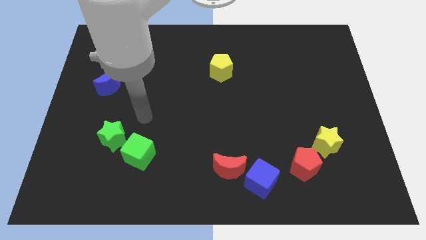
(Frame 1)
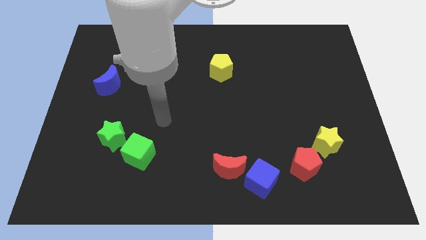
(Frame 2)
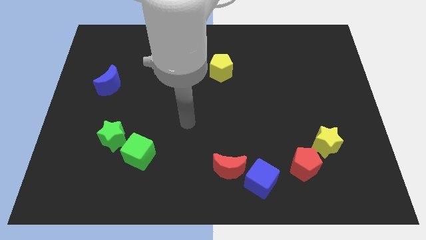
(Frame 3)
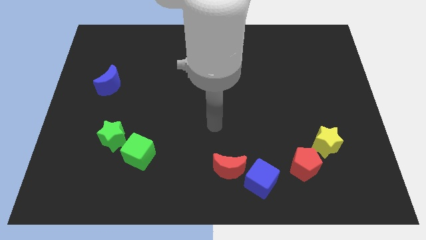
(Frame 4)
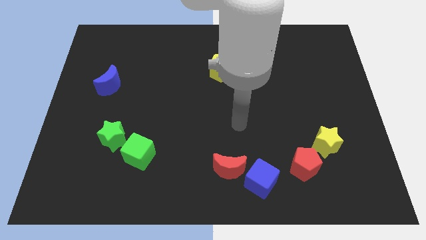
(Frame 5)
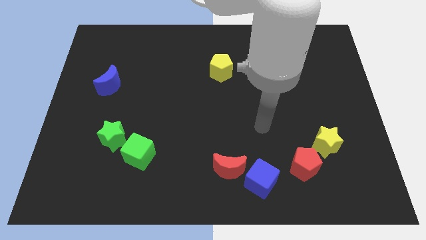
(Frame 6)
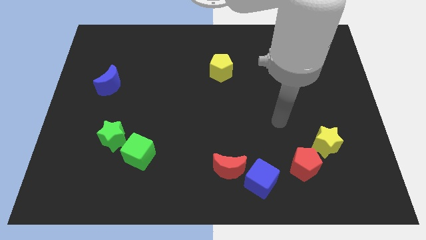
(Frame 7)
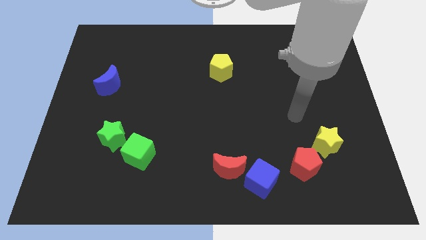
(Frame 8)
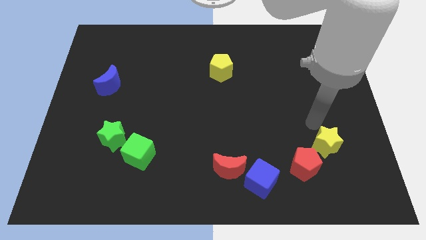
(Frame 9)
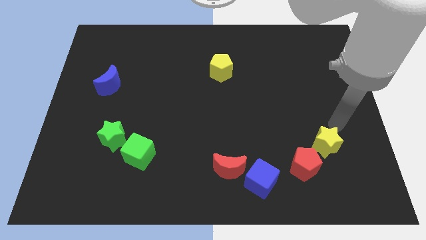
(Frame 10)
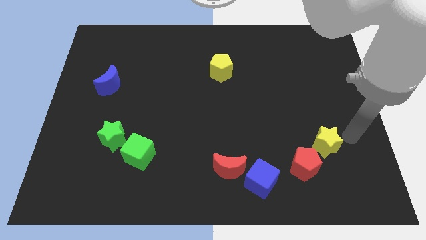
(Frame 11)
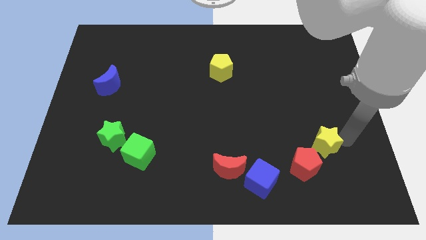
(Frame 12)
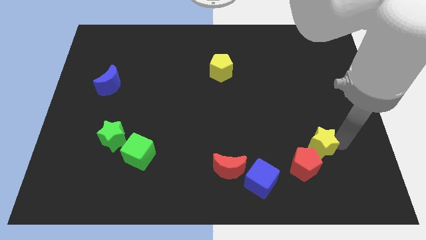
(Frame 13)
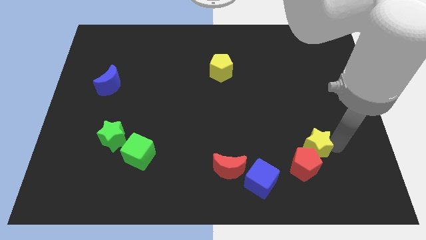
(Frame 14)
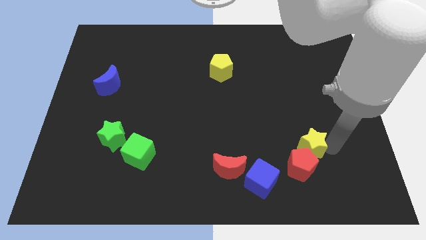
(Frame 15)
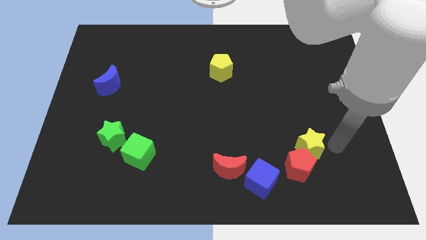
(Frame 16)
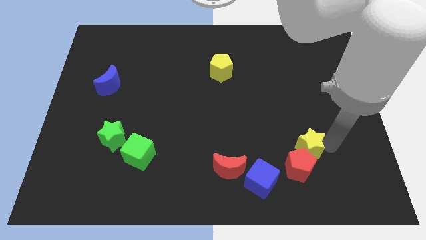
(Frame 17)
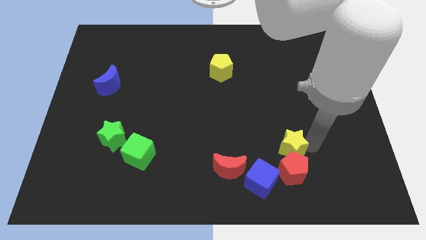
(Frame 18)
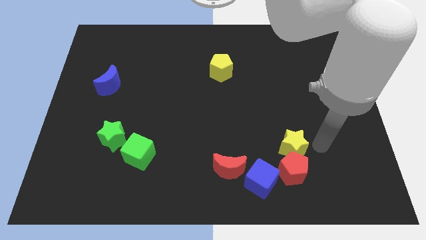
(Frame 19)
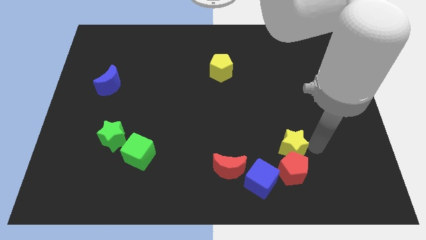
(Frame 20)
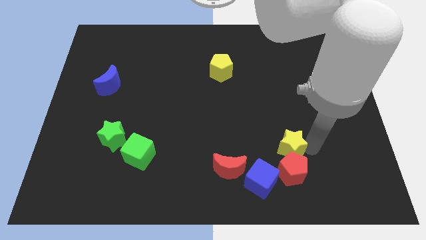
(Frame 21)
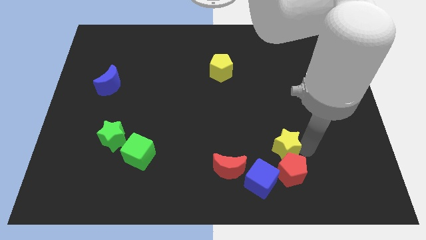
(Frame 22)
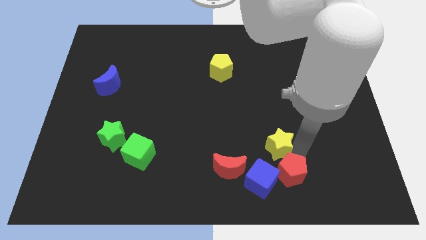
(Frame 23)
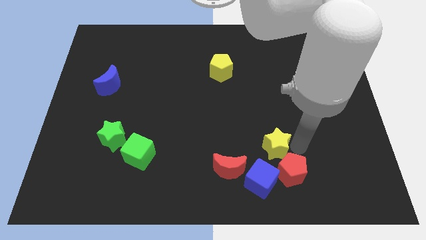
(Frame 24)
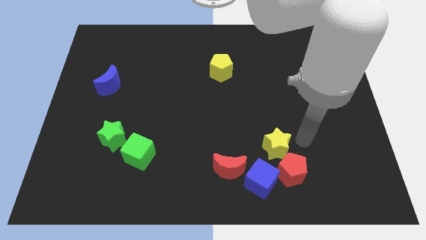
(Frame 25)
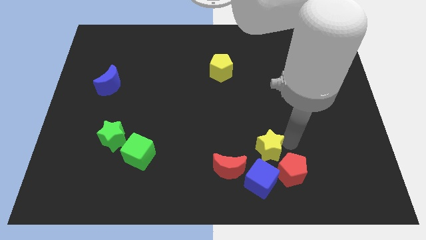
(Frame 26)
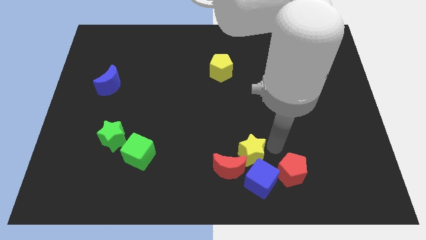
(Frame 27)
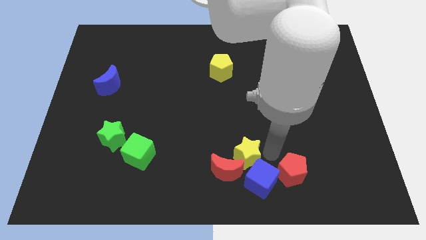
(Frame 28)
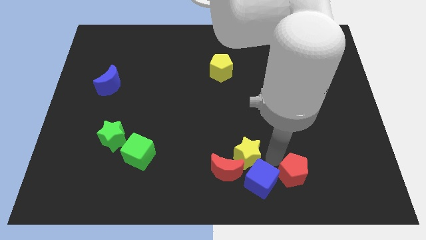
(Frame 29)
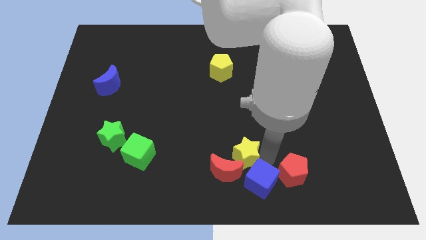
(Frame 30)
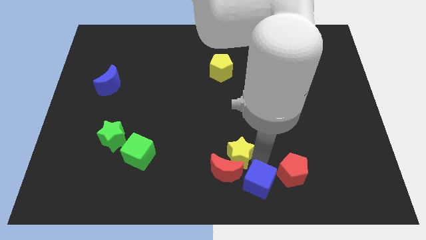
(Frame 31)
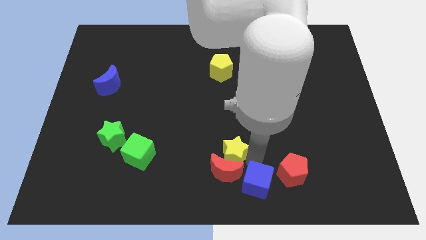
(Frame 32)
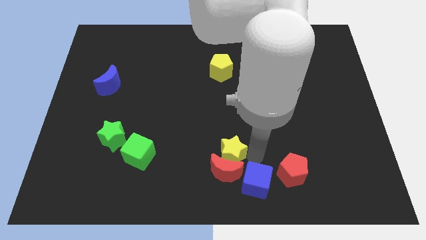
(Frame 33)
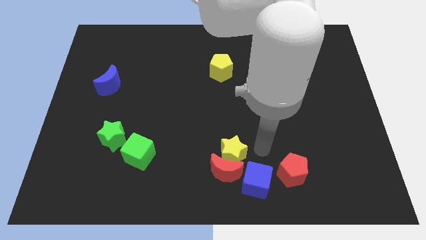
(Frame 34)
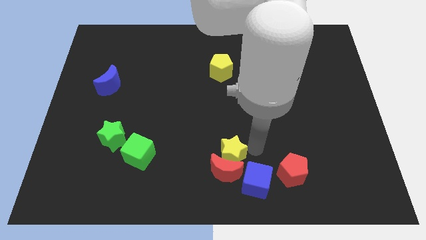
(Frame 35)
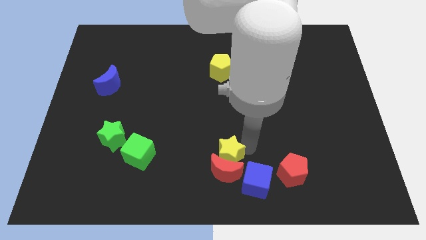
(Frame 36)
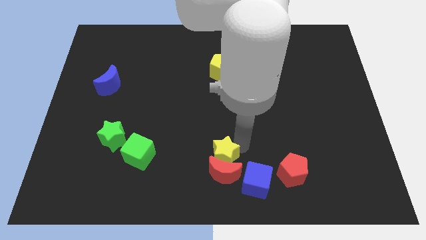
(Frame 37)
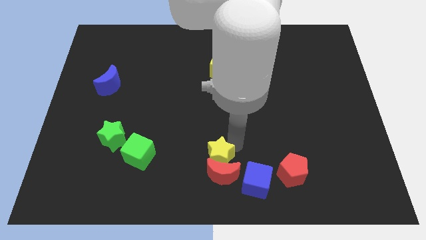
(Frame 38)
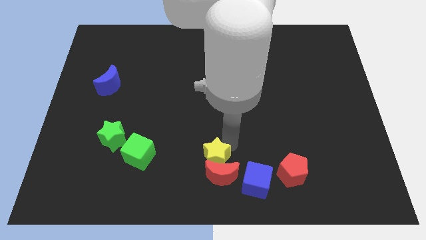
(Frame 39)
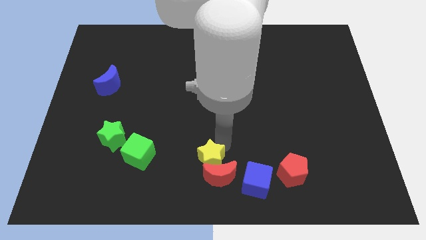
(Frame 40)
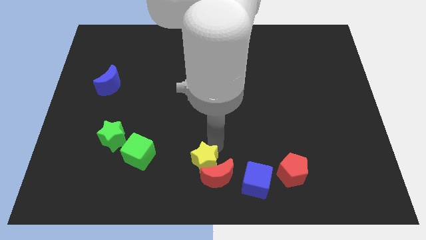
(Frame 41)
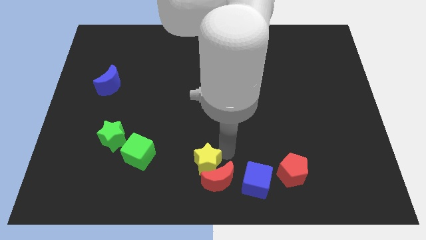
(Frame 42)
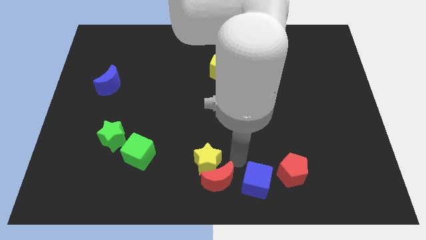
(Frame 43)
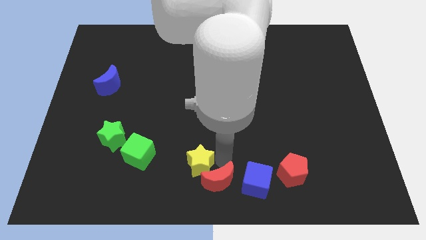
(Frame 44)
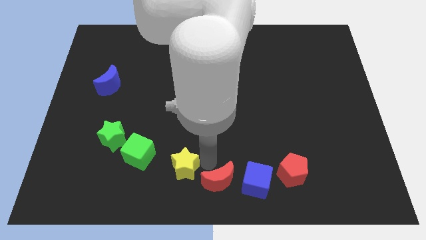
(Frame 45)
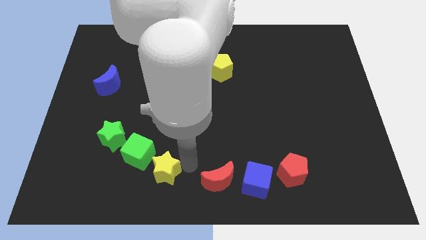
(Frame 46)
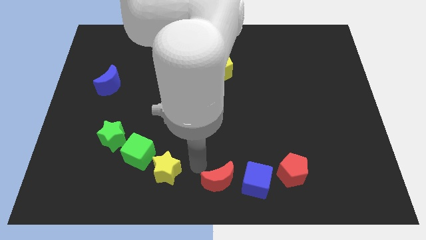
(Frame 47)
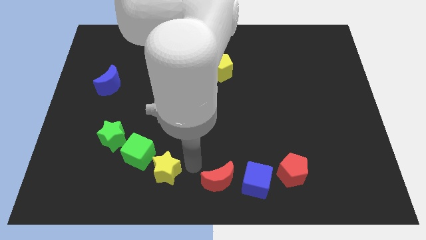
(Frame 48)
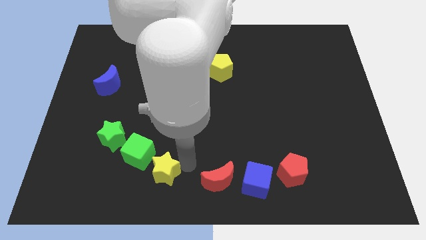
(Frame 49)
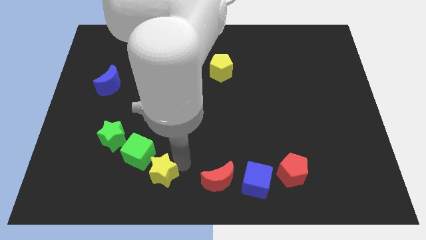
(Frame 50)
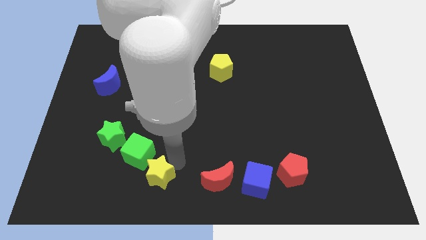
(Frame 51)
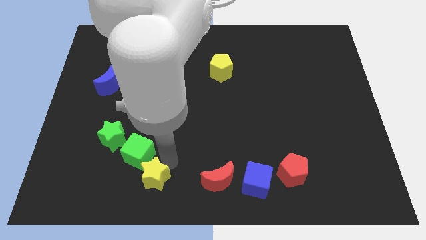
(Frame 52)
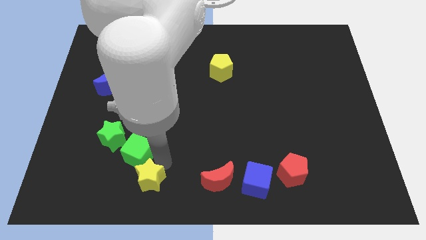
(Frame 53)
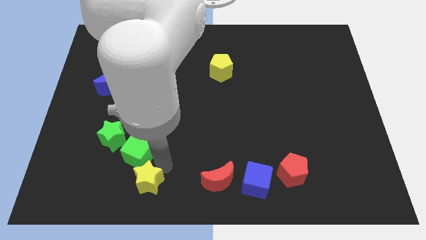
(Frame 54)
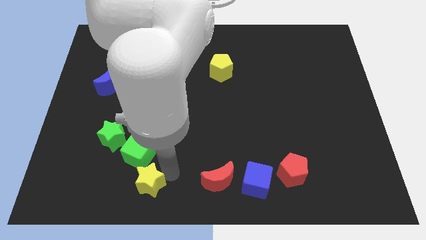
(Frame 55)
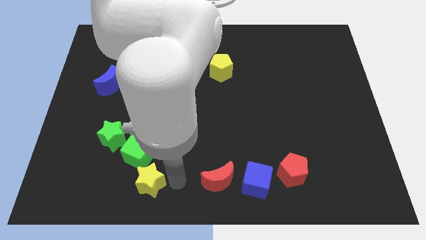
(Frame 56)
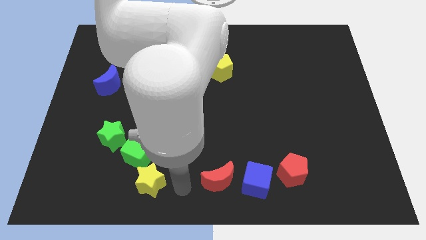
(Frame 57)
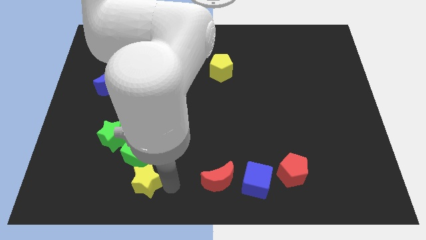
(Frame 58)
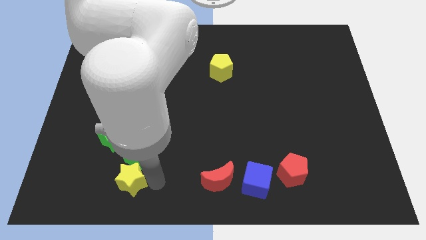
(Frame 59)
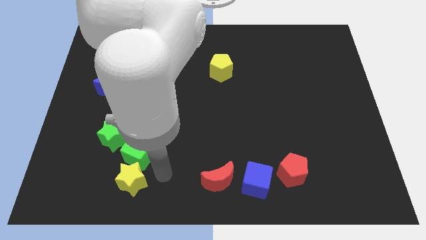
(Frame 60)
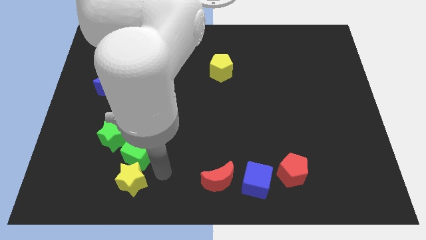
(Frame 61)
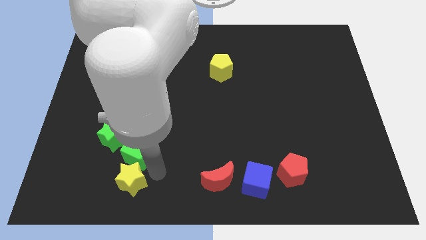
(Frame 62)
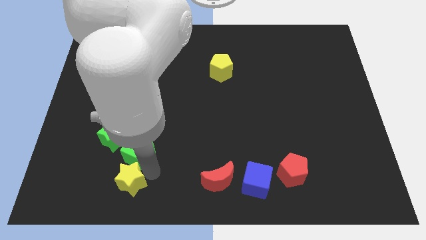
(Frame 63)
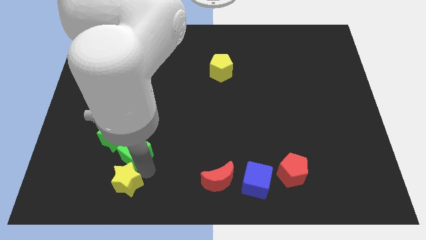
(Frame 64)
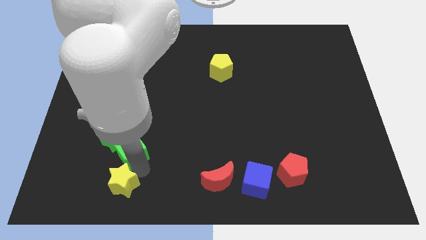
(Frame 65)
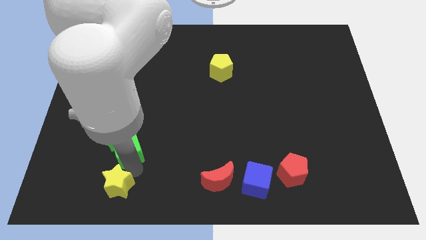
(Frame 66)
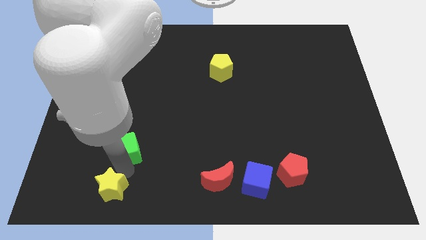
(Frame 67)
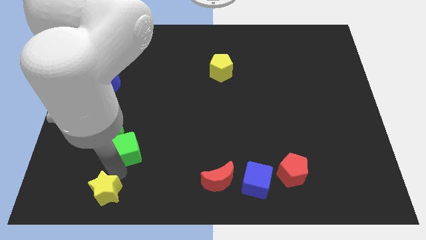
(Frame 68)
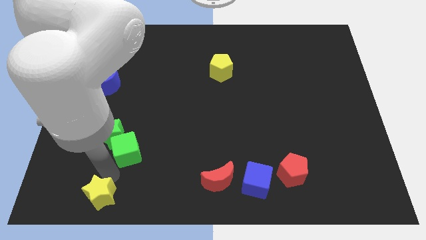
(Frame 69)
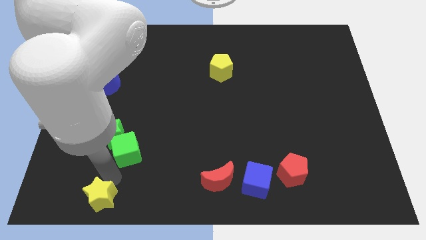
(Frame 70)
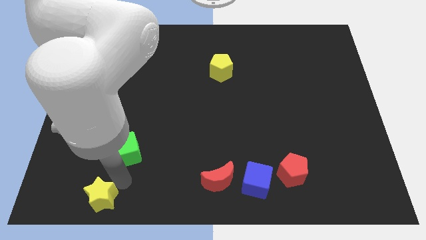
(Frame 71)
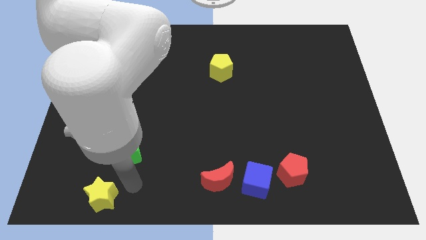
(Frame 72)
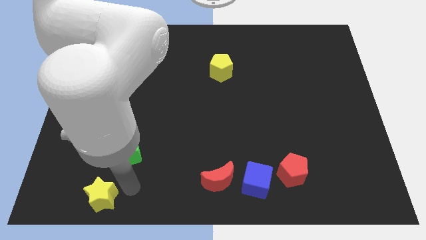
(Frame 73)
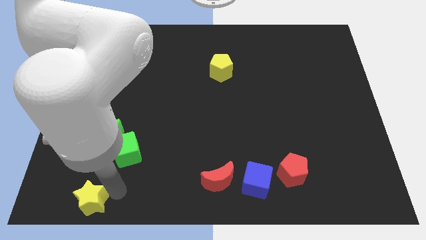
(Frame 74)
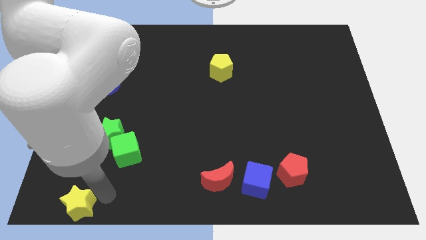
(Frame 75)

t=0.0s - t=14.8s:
push the yellow star to the lower left corner
